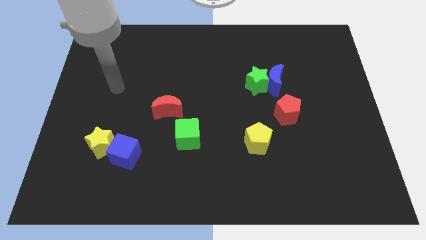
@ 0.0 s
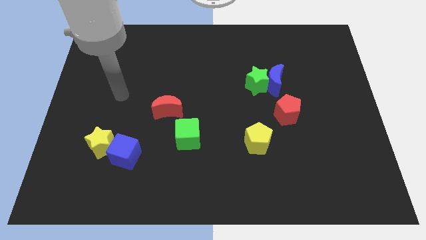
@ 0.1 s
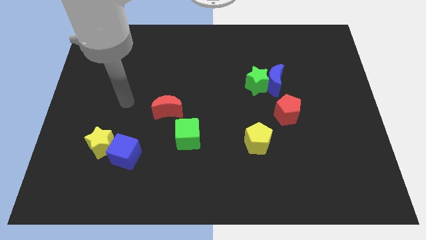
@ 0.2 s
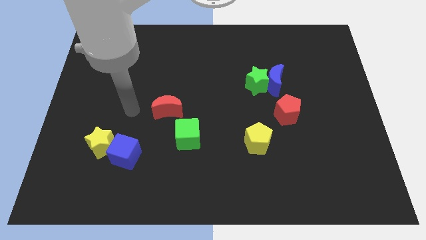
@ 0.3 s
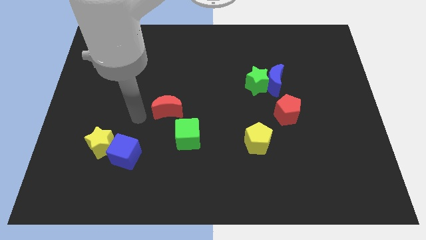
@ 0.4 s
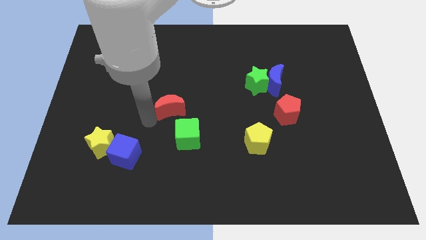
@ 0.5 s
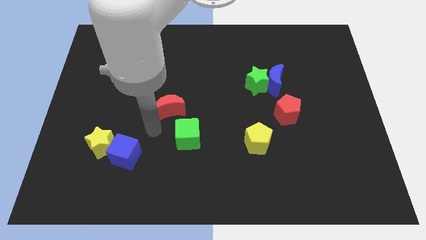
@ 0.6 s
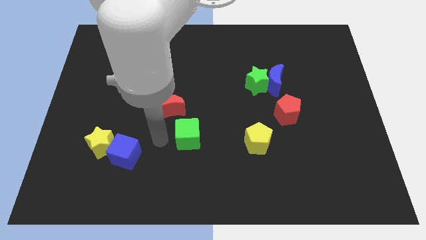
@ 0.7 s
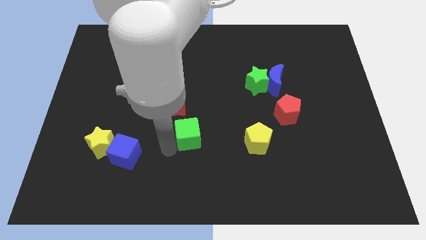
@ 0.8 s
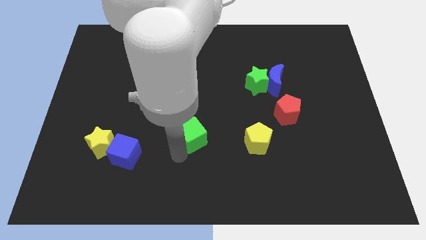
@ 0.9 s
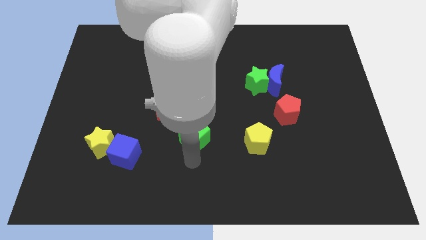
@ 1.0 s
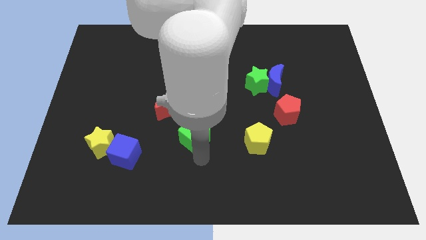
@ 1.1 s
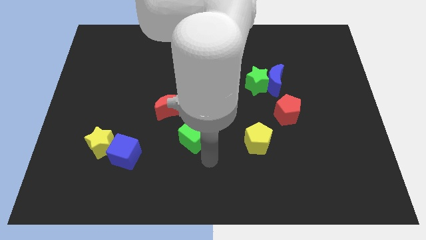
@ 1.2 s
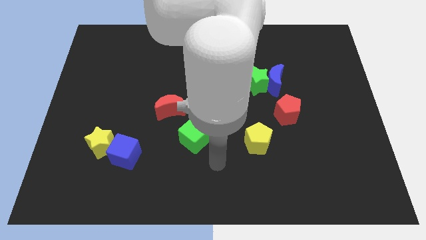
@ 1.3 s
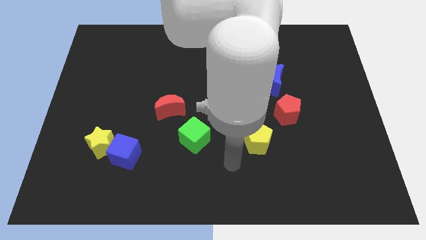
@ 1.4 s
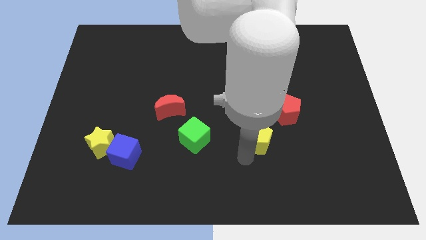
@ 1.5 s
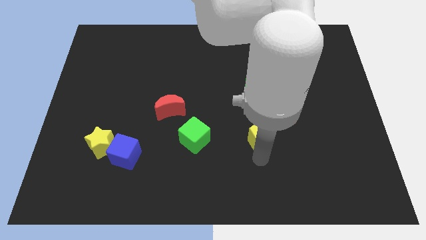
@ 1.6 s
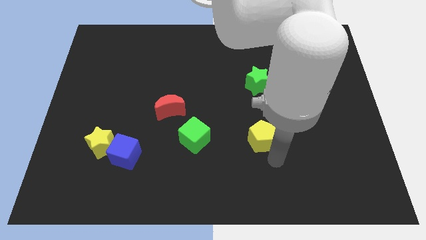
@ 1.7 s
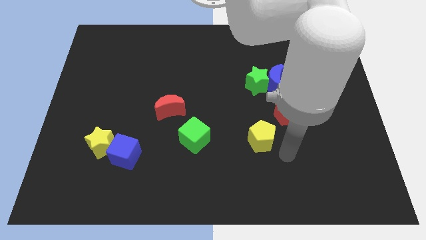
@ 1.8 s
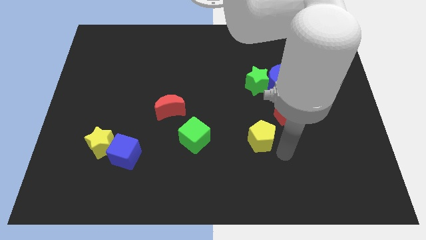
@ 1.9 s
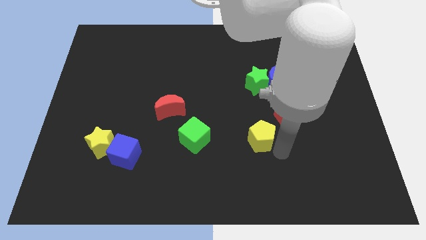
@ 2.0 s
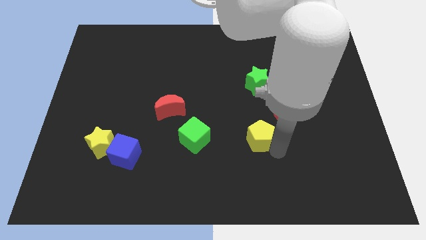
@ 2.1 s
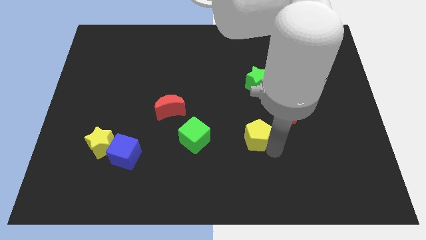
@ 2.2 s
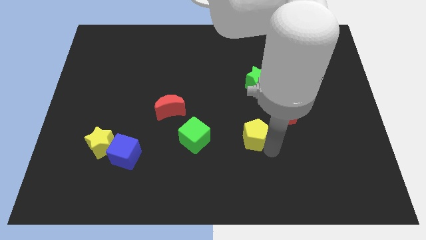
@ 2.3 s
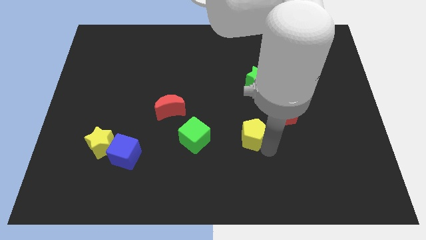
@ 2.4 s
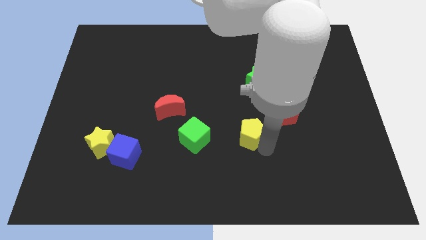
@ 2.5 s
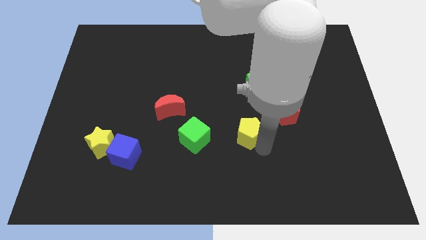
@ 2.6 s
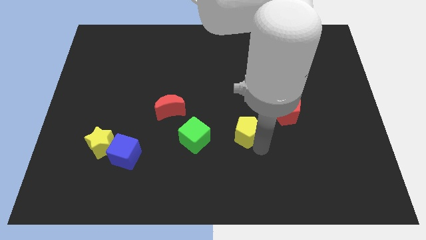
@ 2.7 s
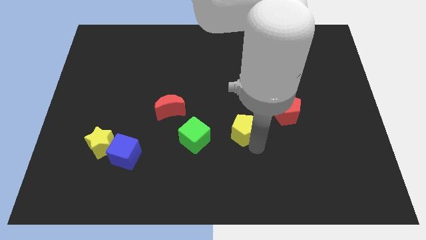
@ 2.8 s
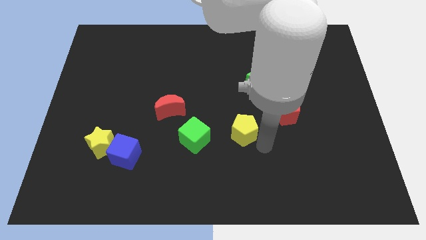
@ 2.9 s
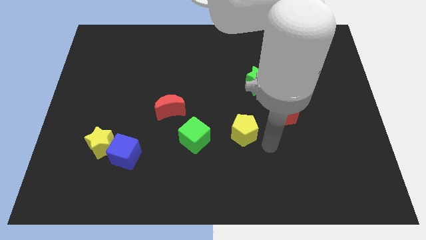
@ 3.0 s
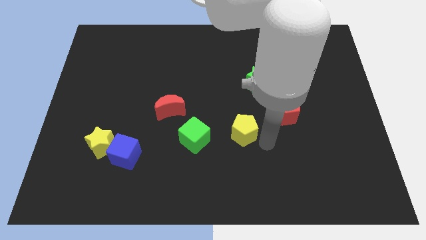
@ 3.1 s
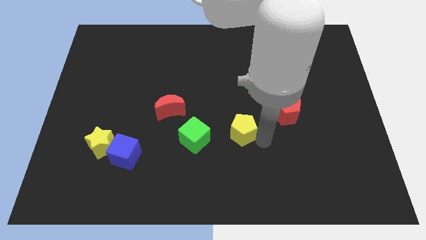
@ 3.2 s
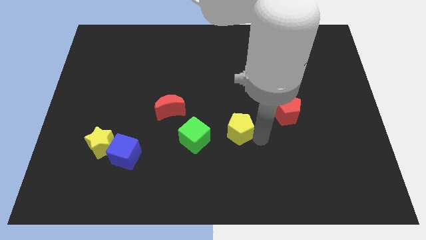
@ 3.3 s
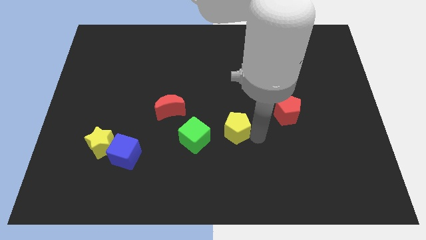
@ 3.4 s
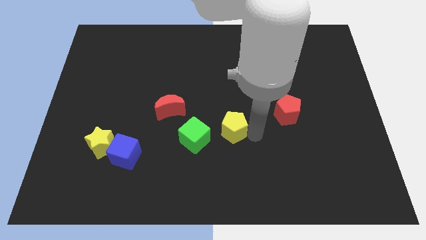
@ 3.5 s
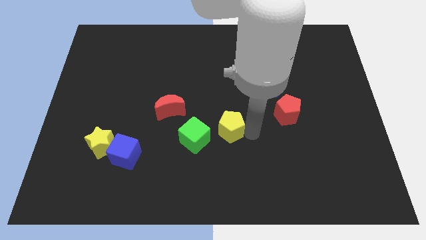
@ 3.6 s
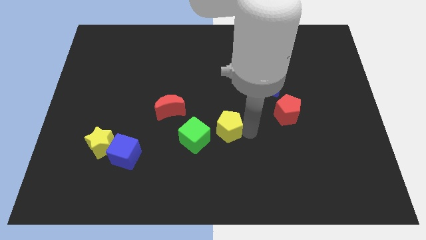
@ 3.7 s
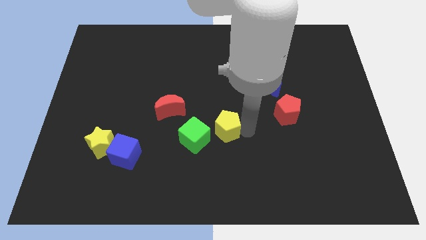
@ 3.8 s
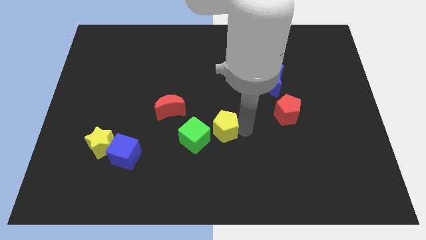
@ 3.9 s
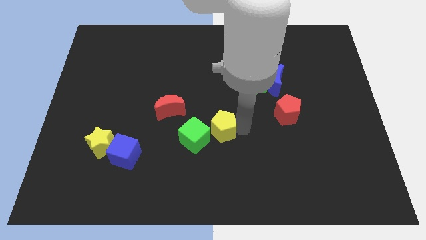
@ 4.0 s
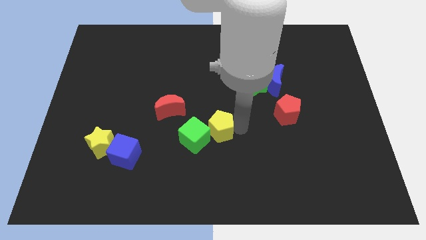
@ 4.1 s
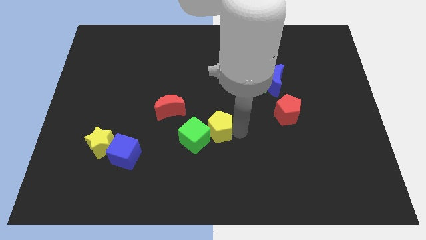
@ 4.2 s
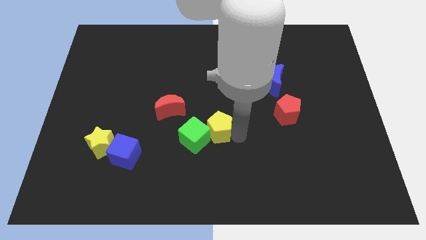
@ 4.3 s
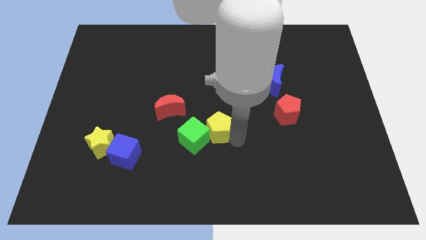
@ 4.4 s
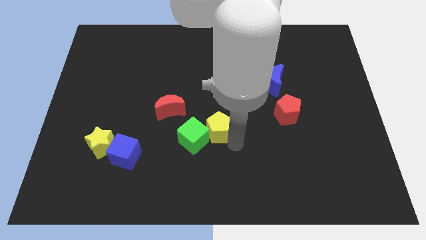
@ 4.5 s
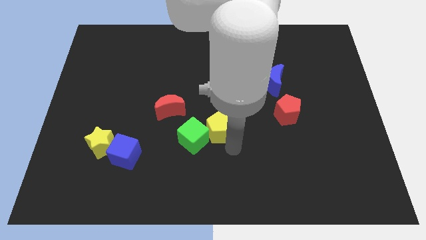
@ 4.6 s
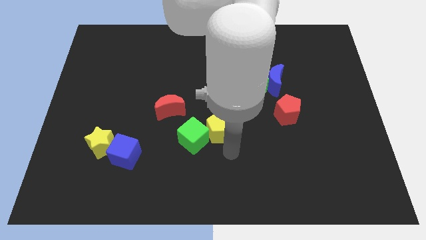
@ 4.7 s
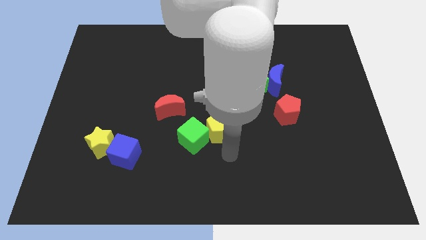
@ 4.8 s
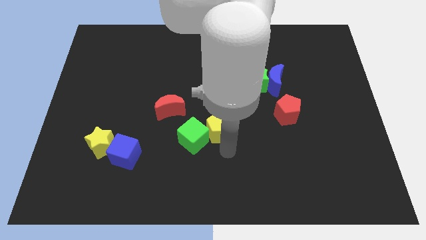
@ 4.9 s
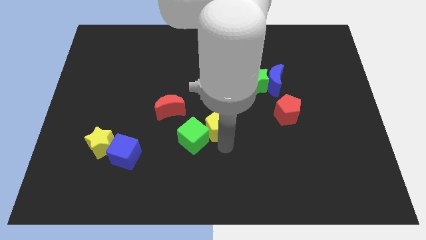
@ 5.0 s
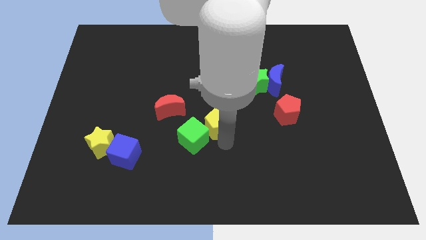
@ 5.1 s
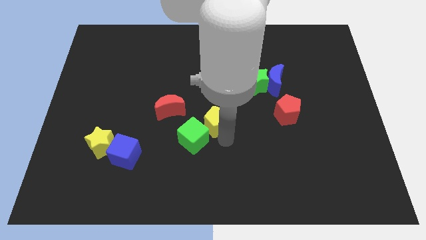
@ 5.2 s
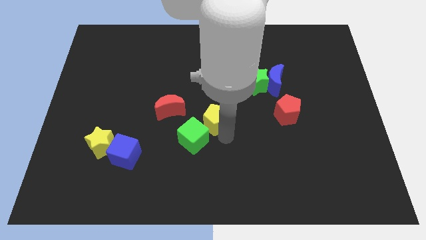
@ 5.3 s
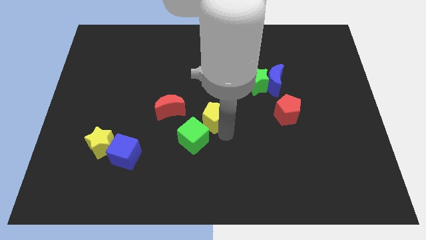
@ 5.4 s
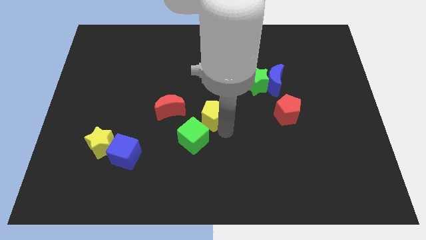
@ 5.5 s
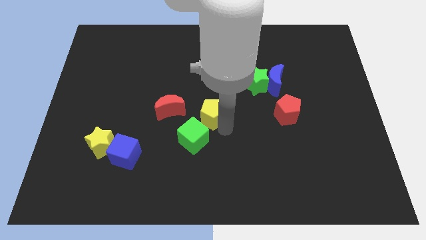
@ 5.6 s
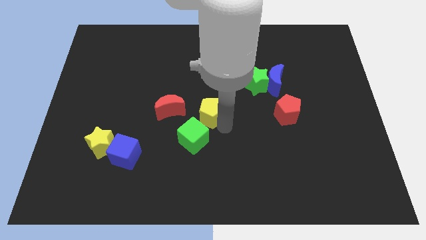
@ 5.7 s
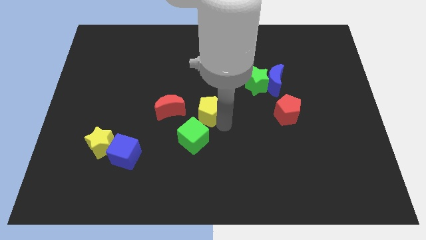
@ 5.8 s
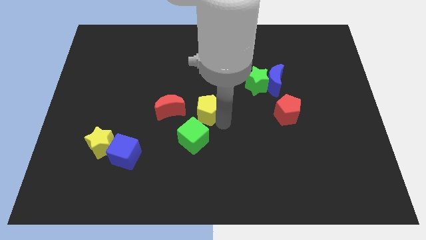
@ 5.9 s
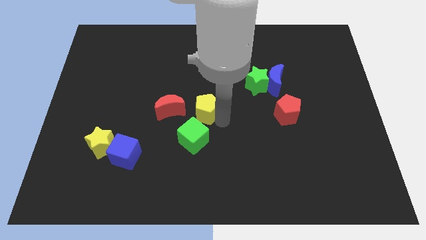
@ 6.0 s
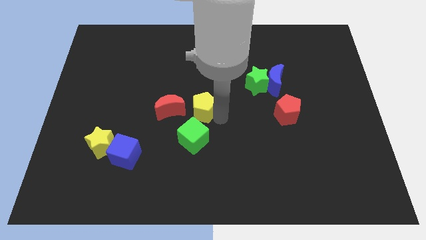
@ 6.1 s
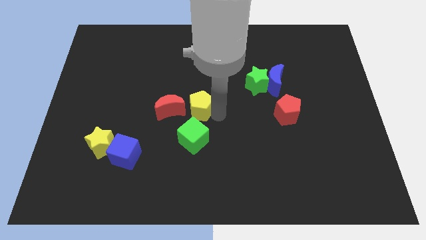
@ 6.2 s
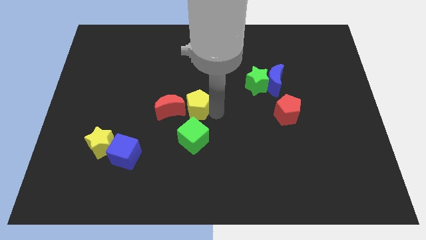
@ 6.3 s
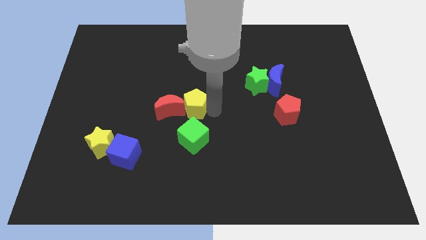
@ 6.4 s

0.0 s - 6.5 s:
put the yellow pentagon towards the red moon

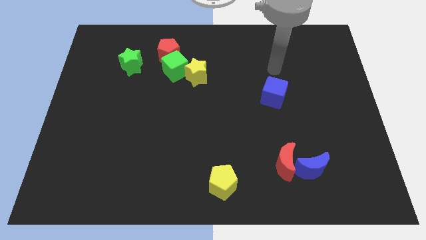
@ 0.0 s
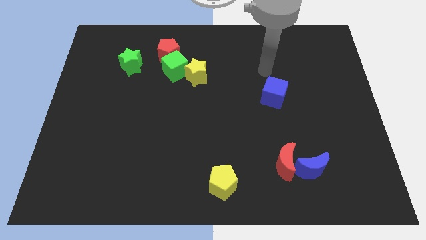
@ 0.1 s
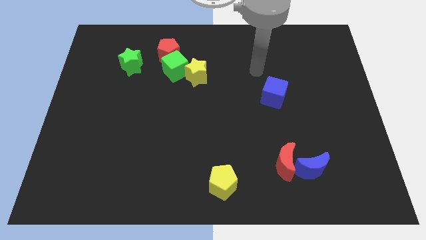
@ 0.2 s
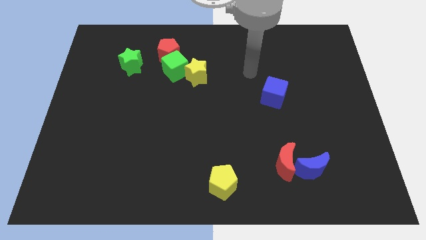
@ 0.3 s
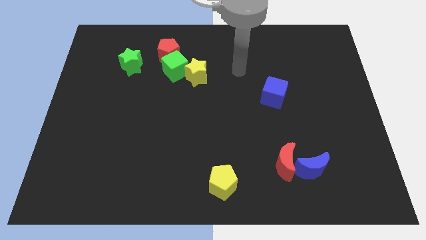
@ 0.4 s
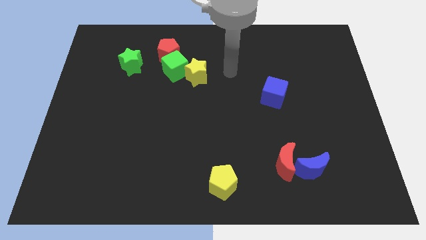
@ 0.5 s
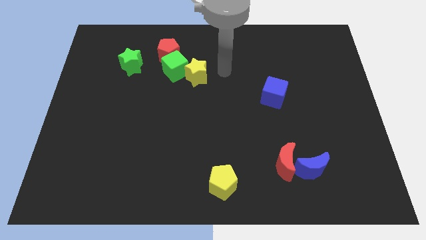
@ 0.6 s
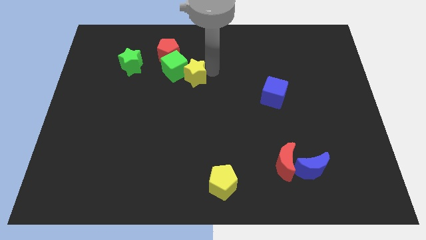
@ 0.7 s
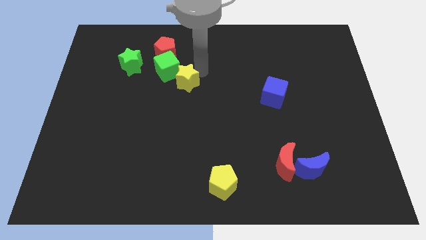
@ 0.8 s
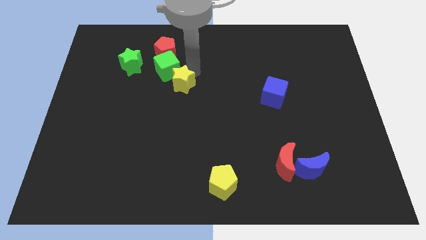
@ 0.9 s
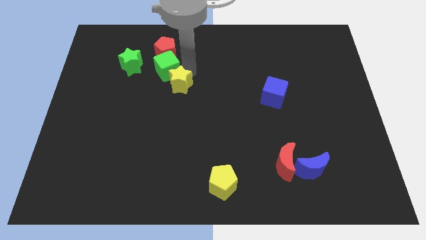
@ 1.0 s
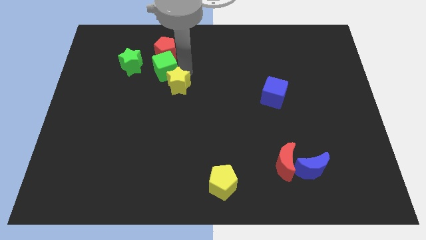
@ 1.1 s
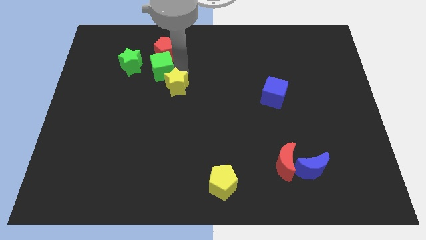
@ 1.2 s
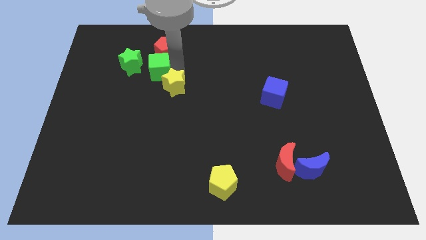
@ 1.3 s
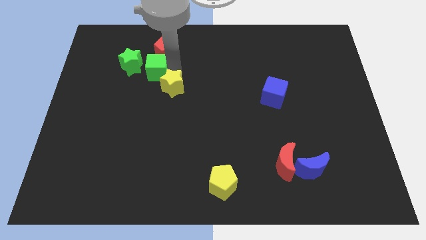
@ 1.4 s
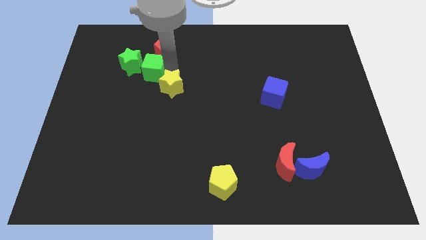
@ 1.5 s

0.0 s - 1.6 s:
push the green cube close to the green star
